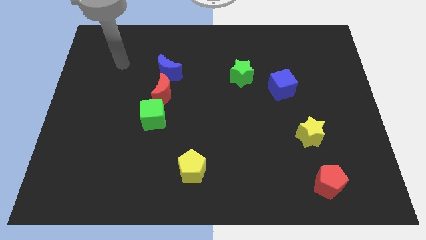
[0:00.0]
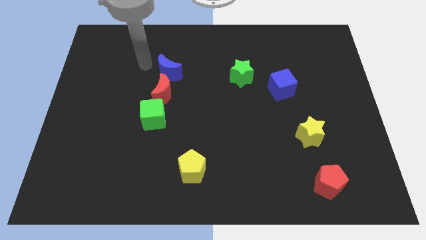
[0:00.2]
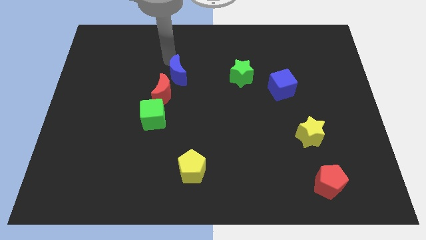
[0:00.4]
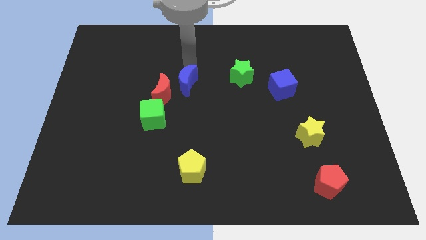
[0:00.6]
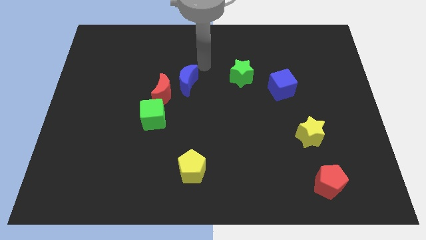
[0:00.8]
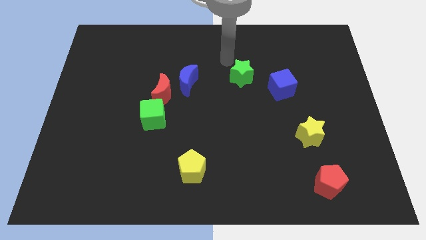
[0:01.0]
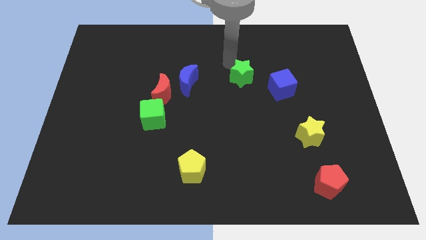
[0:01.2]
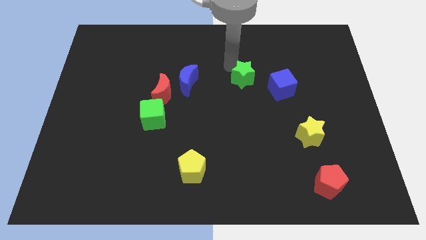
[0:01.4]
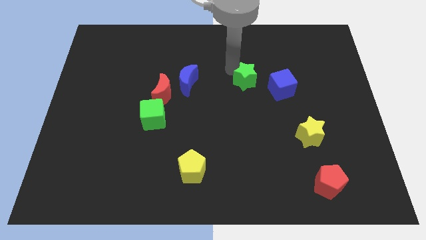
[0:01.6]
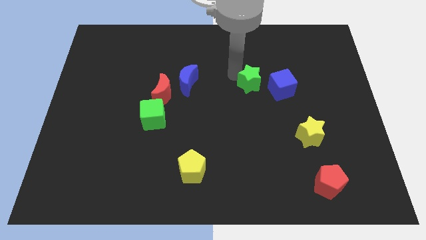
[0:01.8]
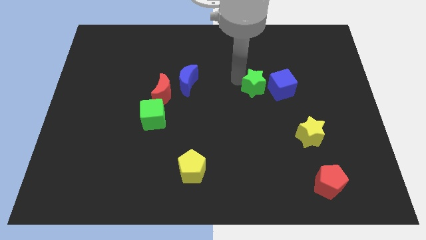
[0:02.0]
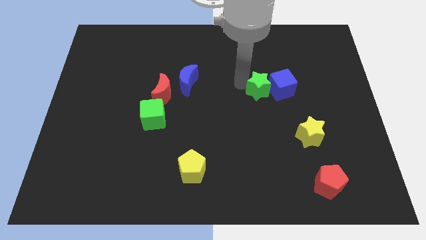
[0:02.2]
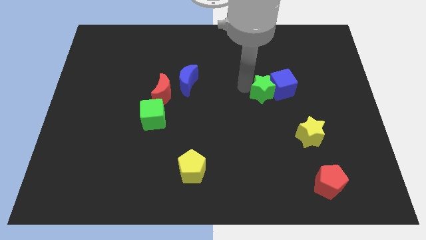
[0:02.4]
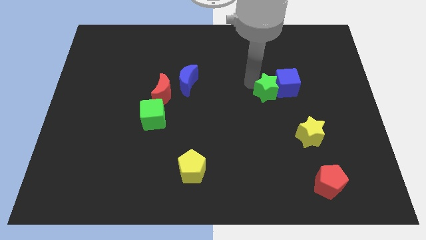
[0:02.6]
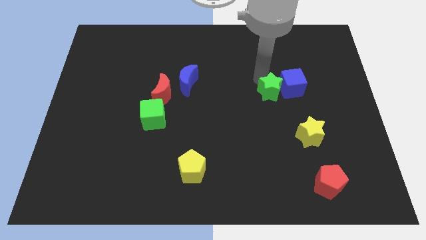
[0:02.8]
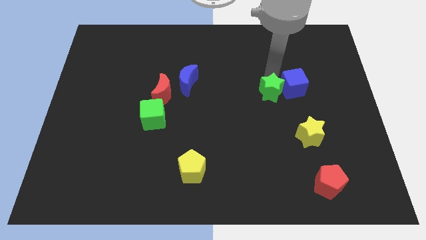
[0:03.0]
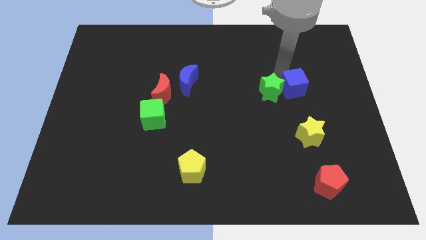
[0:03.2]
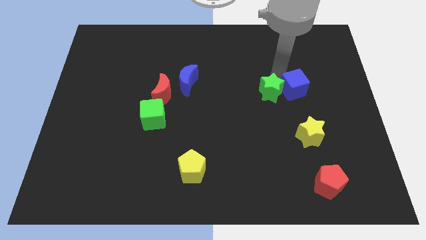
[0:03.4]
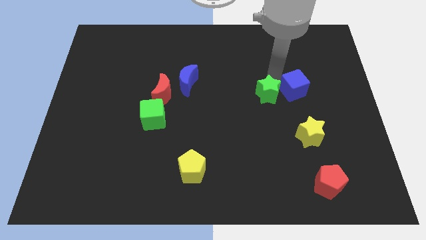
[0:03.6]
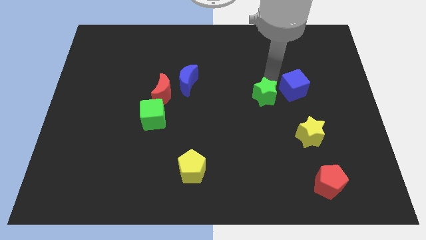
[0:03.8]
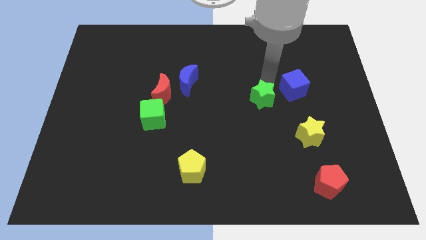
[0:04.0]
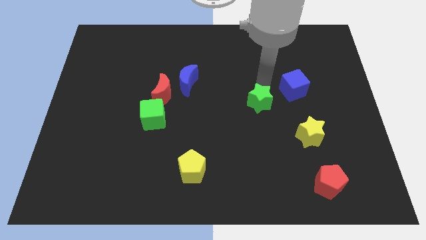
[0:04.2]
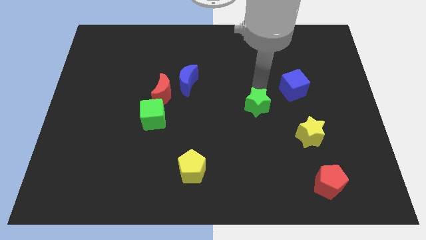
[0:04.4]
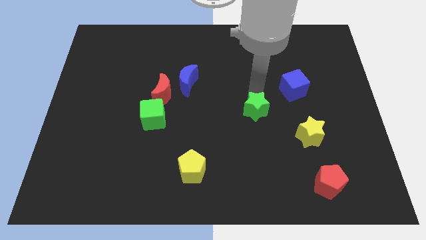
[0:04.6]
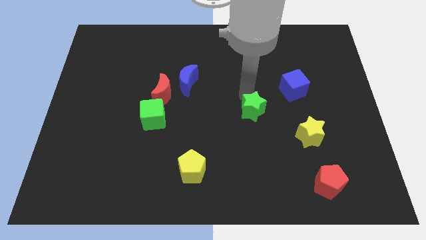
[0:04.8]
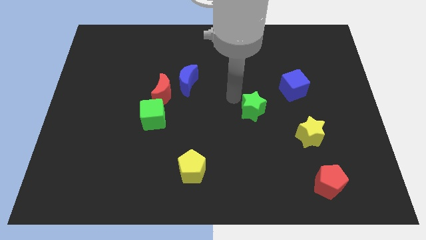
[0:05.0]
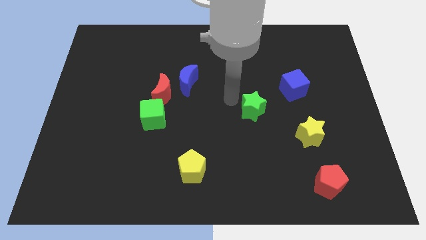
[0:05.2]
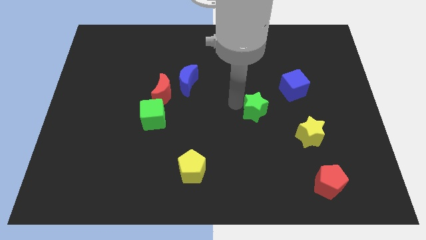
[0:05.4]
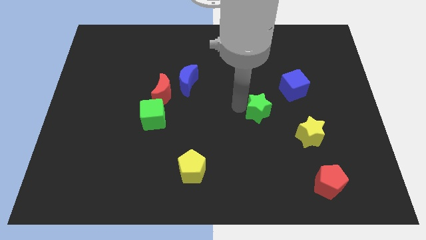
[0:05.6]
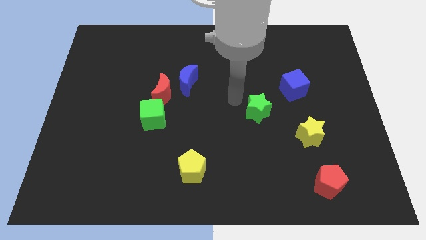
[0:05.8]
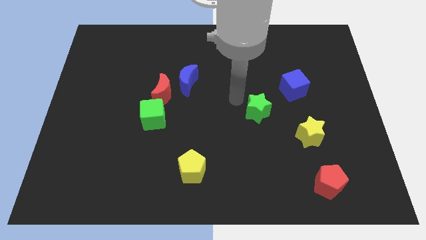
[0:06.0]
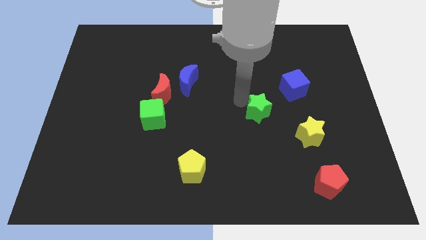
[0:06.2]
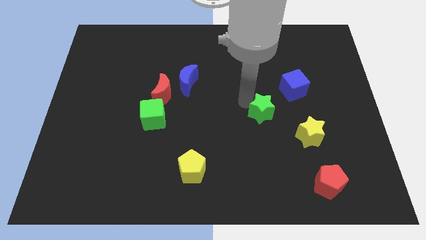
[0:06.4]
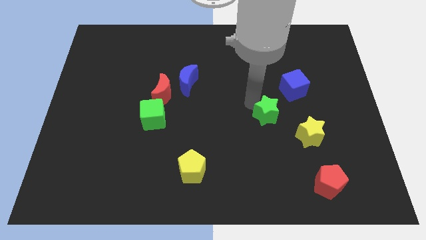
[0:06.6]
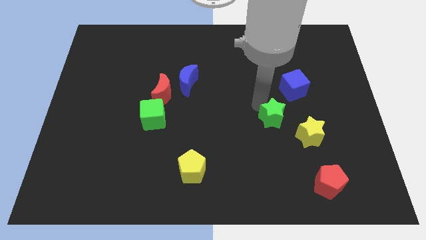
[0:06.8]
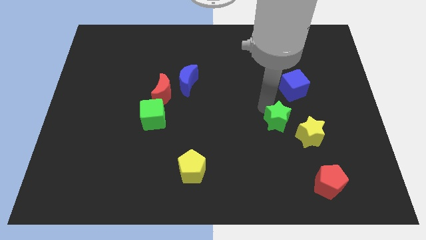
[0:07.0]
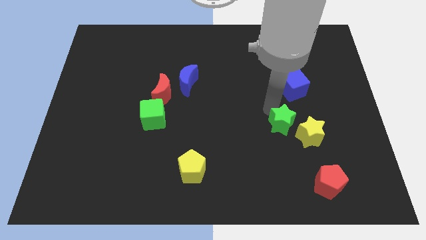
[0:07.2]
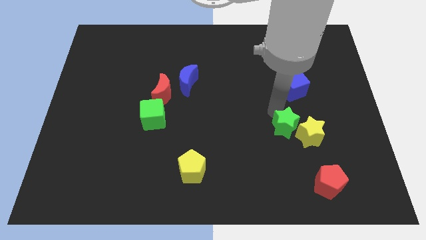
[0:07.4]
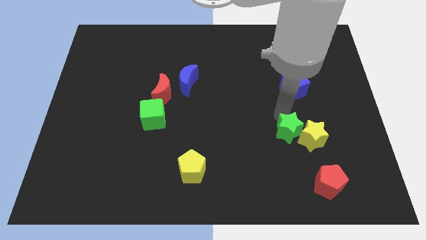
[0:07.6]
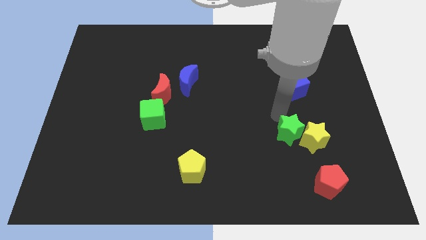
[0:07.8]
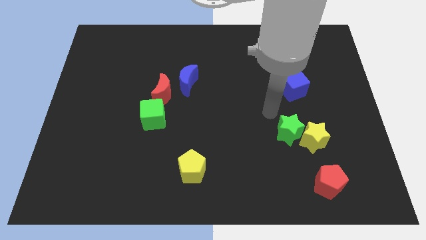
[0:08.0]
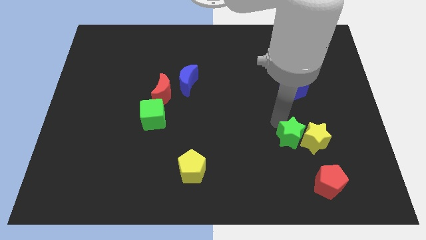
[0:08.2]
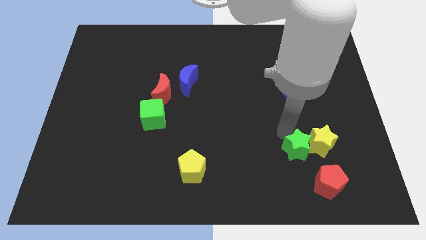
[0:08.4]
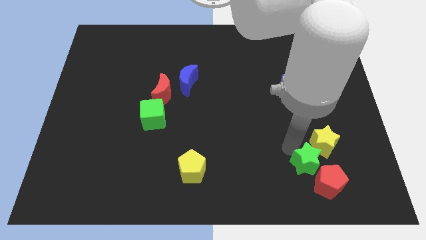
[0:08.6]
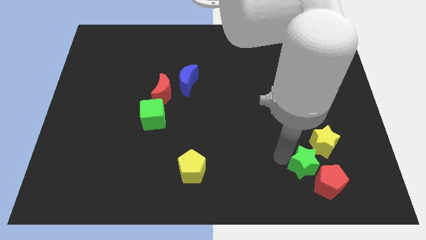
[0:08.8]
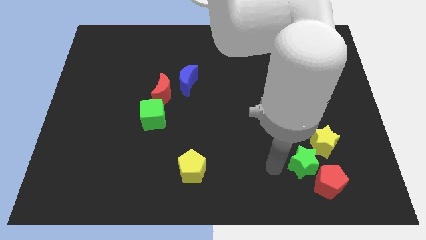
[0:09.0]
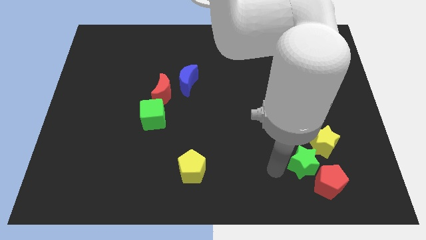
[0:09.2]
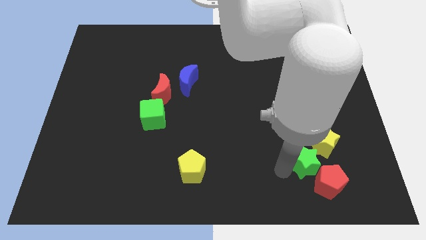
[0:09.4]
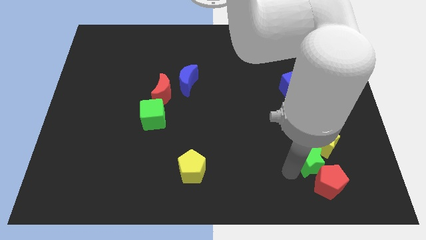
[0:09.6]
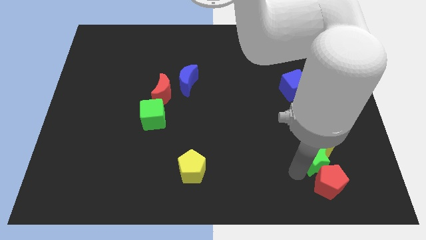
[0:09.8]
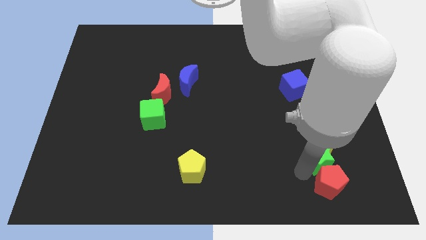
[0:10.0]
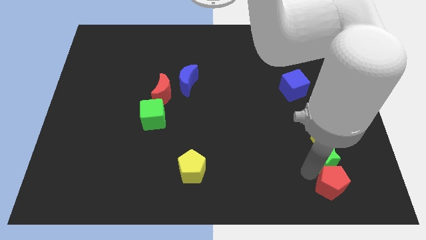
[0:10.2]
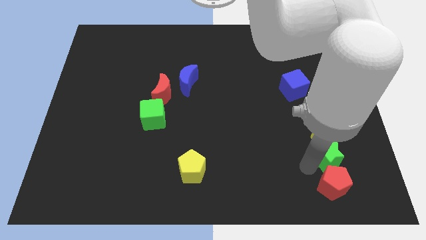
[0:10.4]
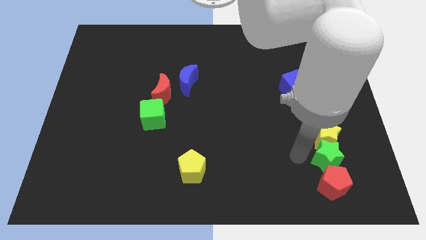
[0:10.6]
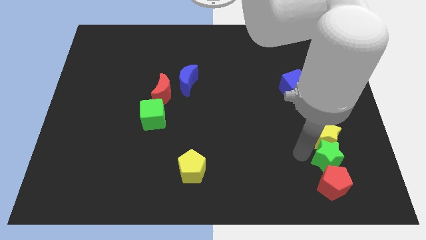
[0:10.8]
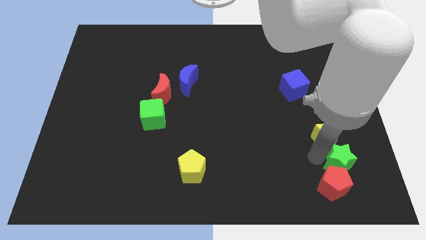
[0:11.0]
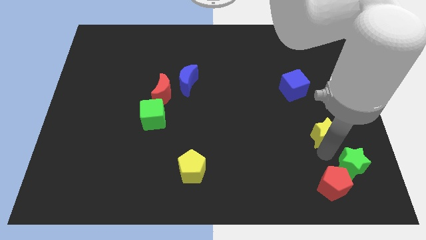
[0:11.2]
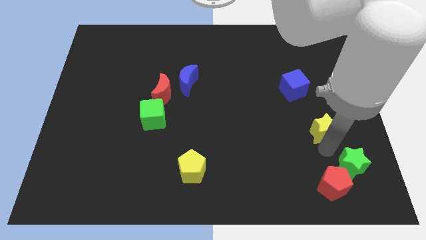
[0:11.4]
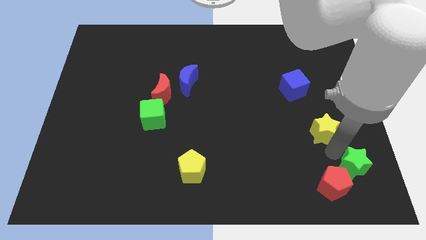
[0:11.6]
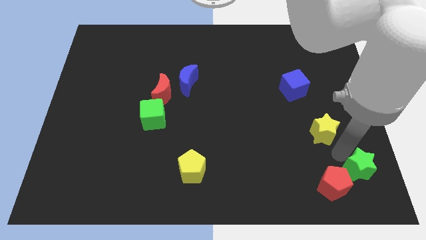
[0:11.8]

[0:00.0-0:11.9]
slide the green star to the bottom right corner
